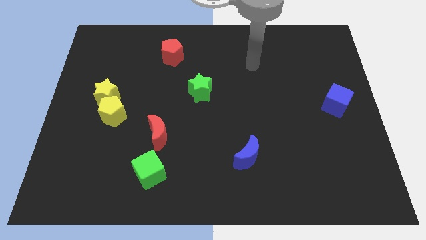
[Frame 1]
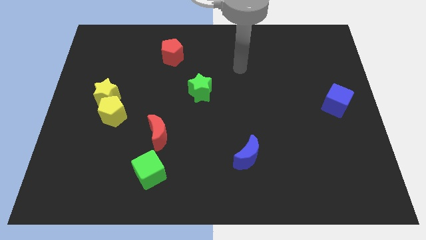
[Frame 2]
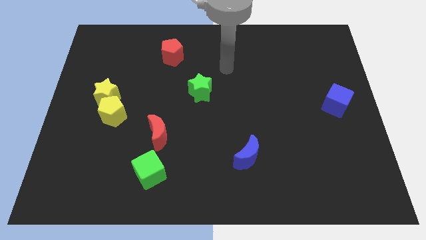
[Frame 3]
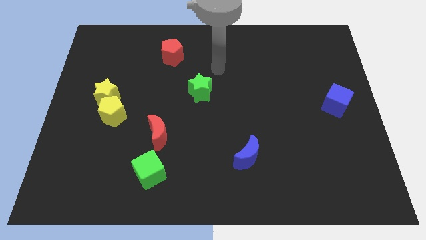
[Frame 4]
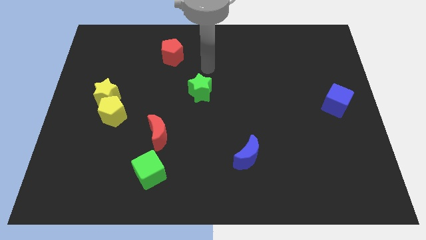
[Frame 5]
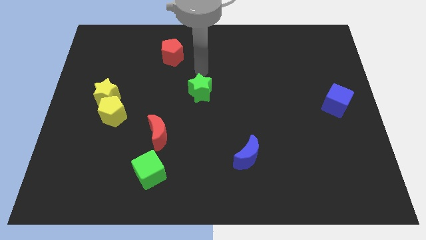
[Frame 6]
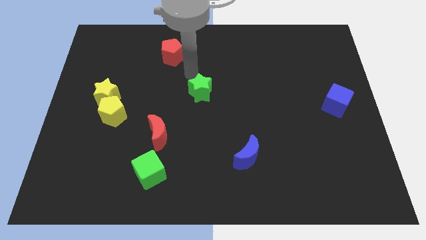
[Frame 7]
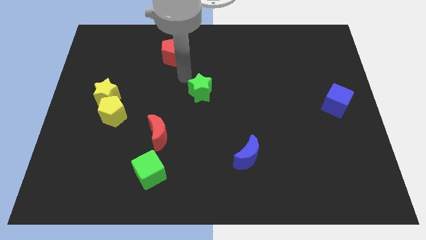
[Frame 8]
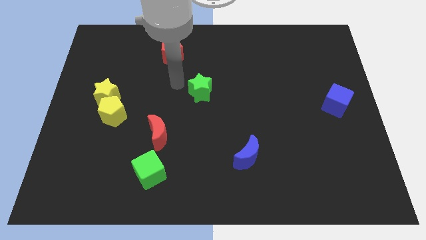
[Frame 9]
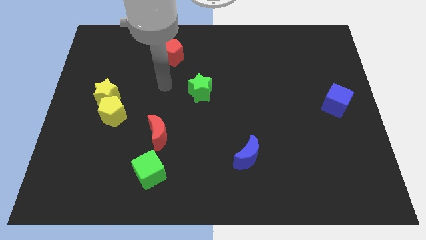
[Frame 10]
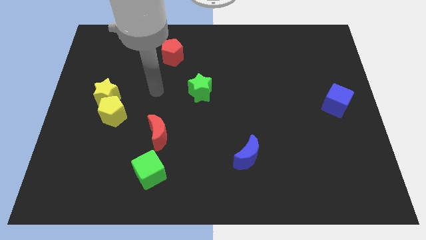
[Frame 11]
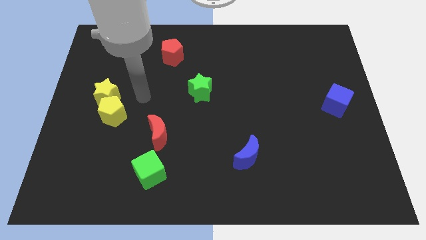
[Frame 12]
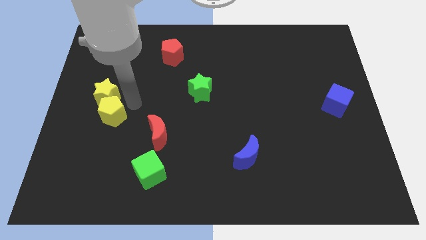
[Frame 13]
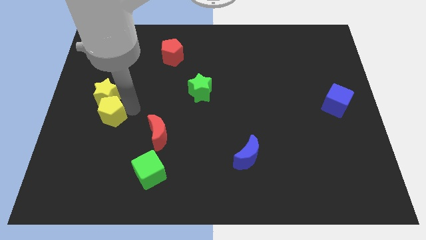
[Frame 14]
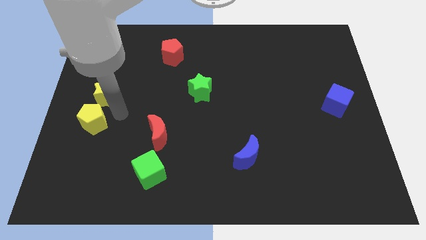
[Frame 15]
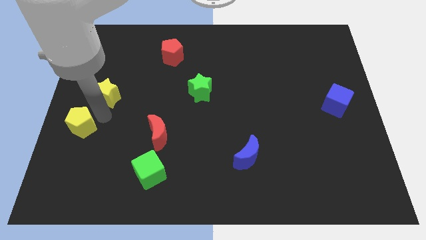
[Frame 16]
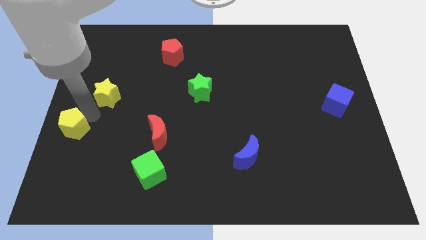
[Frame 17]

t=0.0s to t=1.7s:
move the yellow star away from the yellow pentagon

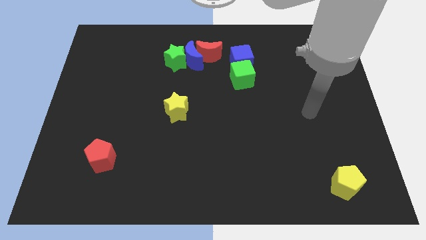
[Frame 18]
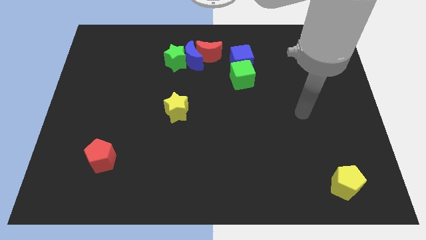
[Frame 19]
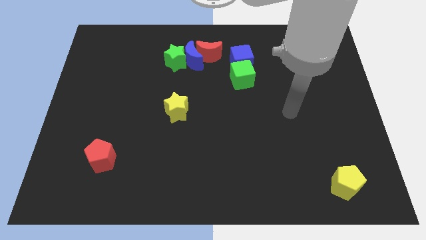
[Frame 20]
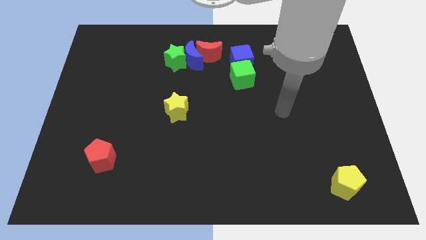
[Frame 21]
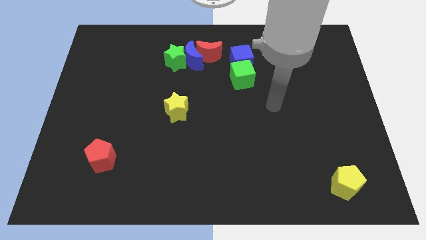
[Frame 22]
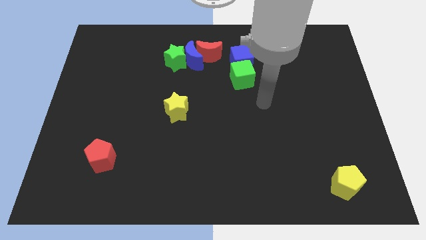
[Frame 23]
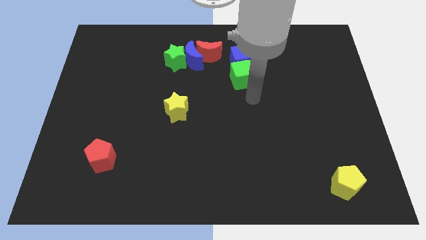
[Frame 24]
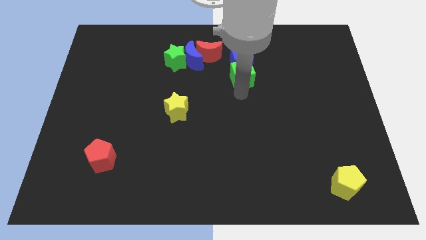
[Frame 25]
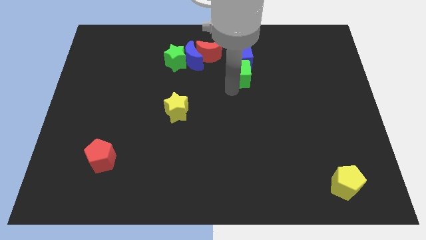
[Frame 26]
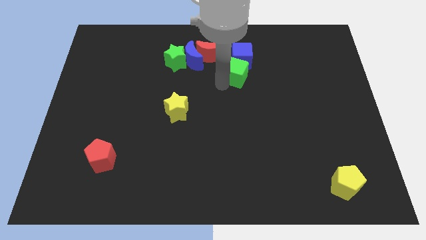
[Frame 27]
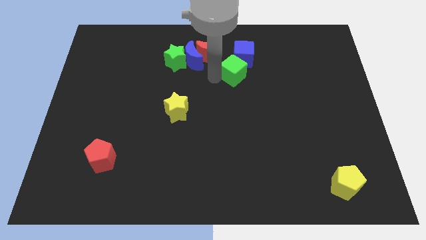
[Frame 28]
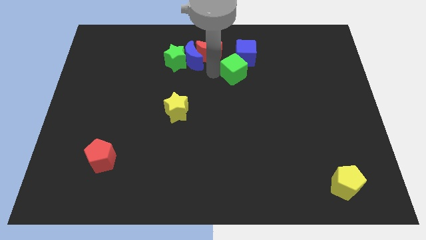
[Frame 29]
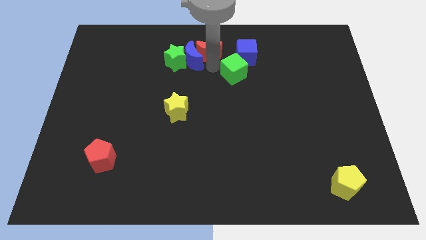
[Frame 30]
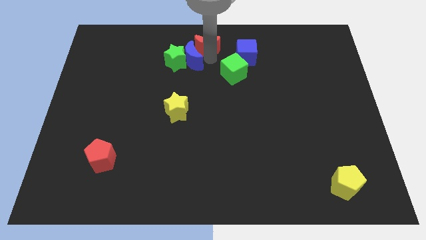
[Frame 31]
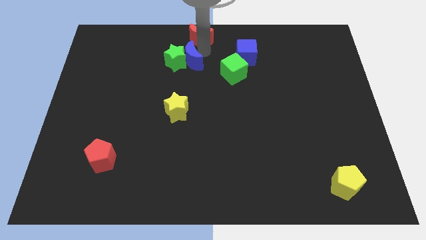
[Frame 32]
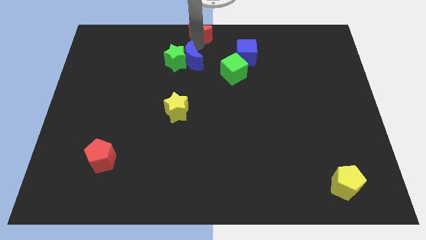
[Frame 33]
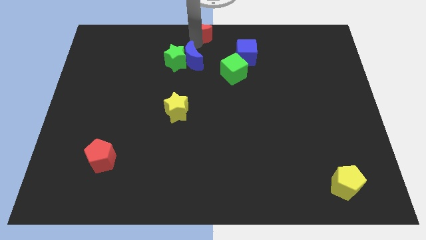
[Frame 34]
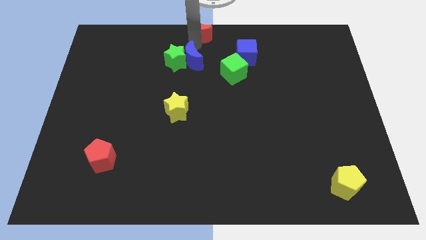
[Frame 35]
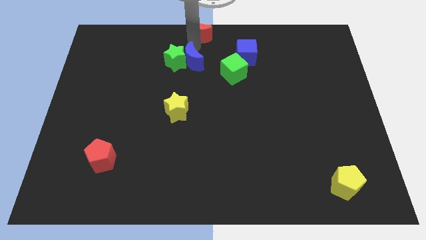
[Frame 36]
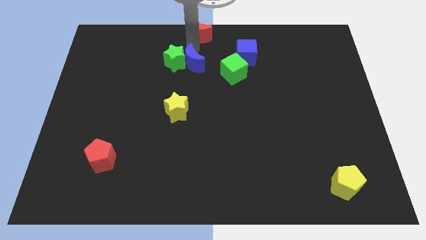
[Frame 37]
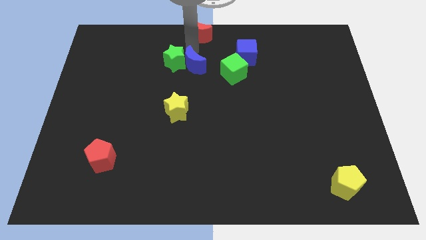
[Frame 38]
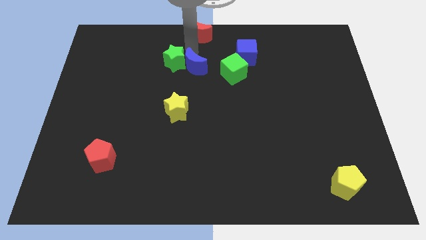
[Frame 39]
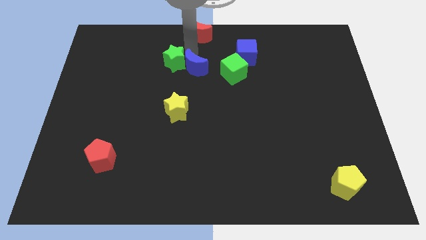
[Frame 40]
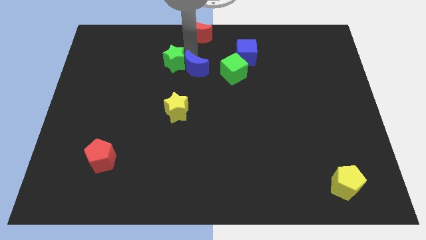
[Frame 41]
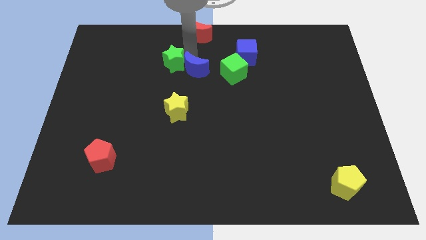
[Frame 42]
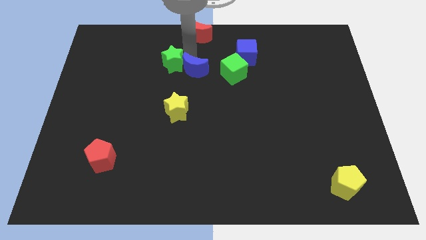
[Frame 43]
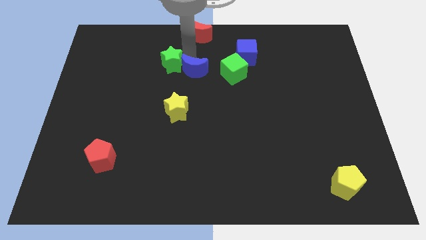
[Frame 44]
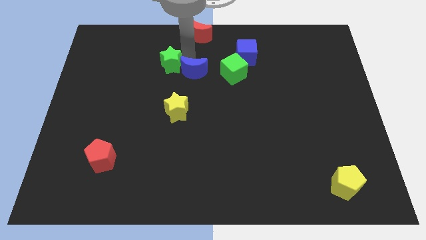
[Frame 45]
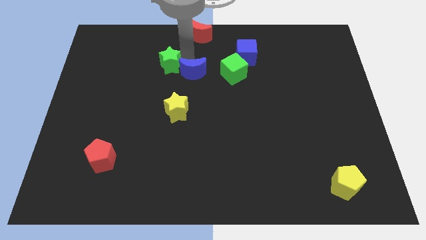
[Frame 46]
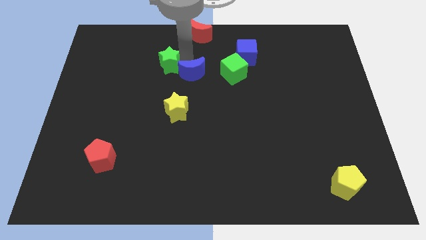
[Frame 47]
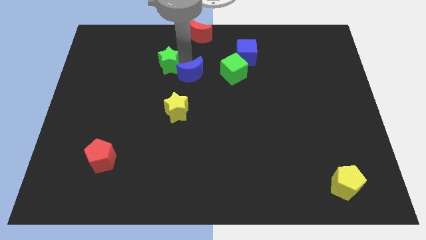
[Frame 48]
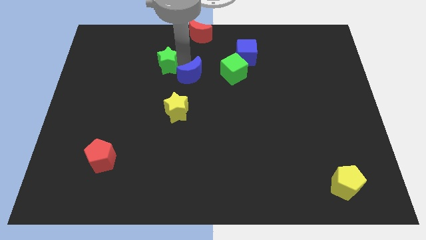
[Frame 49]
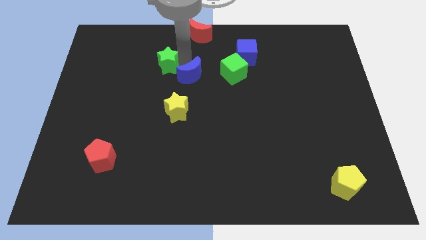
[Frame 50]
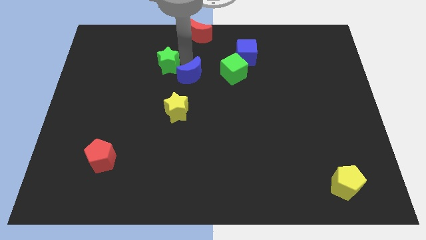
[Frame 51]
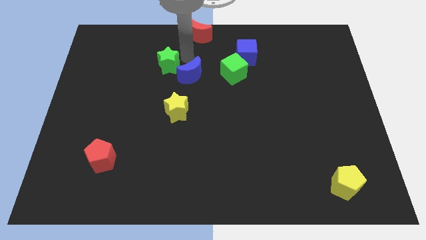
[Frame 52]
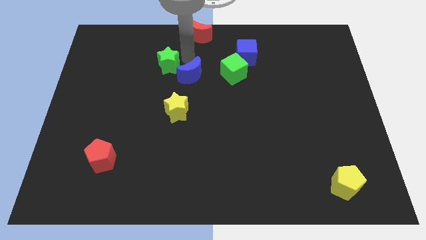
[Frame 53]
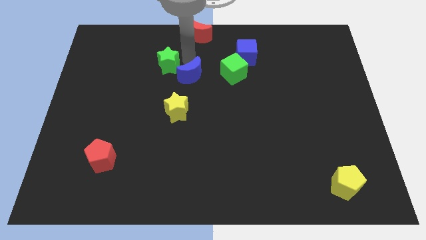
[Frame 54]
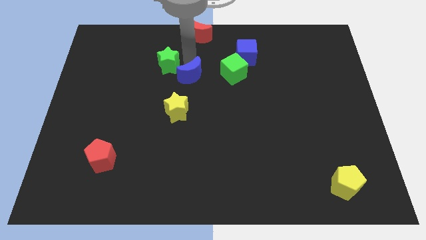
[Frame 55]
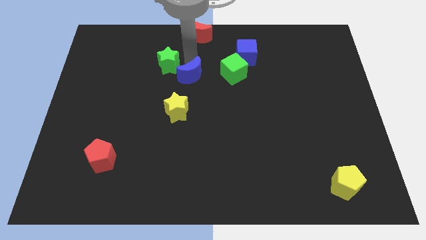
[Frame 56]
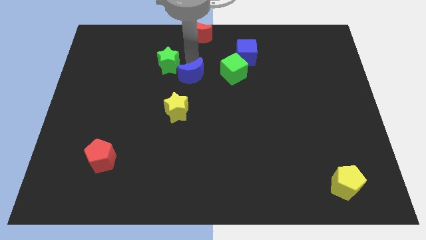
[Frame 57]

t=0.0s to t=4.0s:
pull the blue moon apart from the green star and red moon

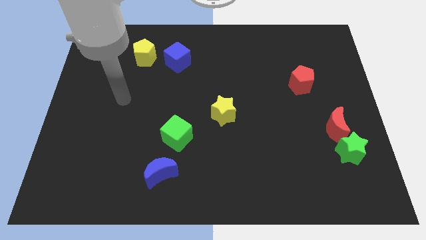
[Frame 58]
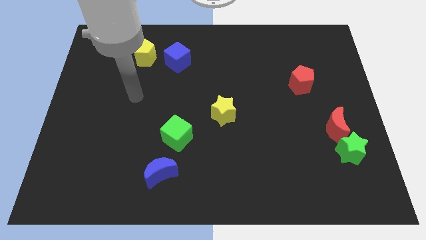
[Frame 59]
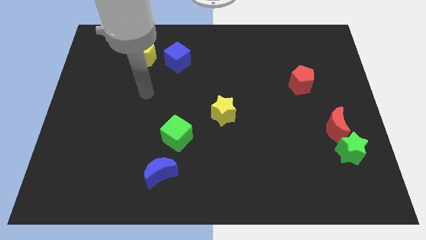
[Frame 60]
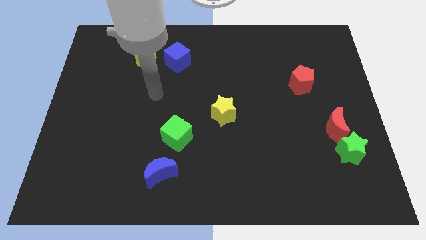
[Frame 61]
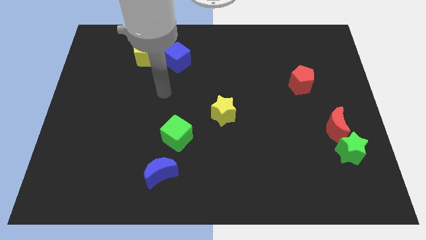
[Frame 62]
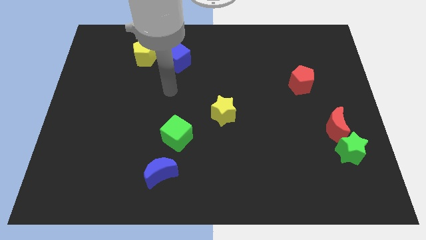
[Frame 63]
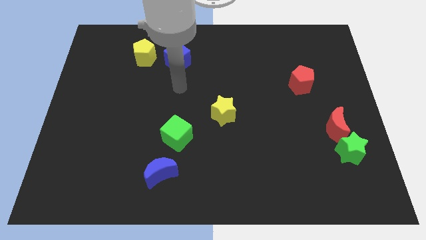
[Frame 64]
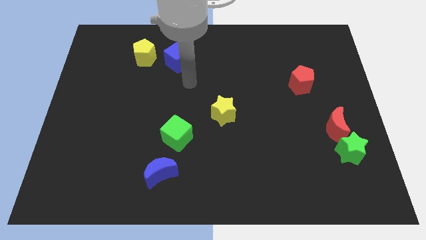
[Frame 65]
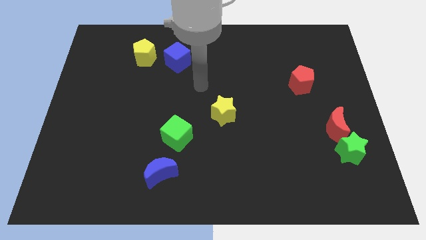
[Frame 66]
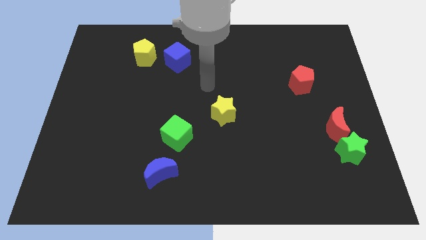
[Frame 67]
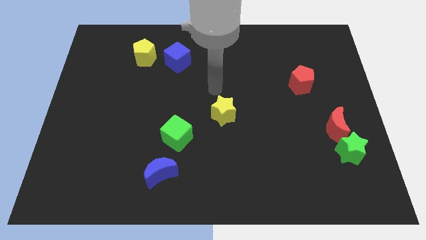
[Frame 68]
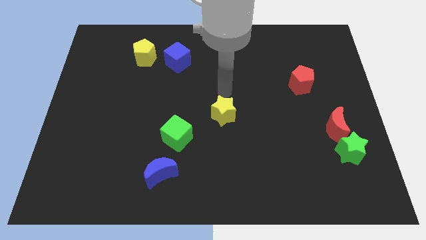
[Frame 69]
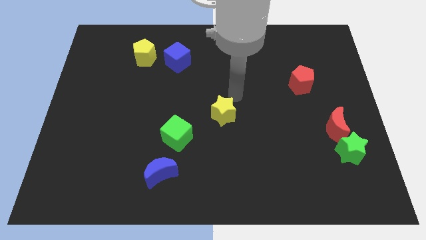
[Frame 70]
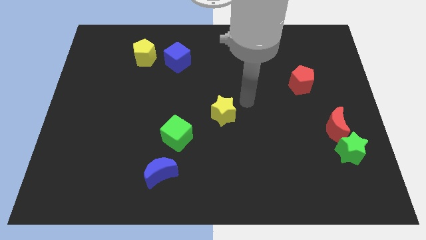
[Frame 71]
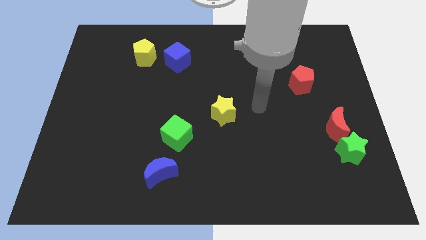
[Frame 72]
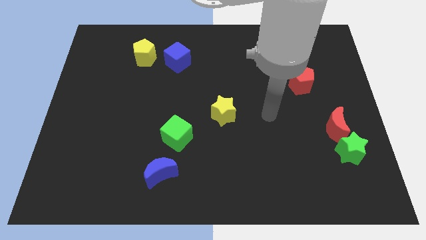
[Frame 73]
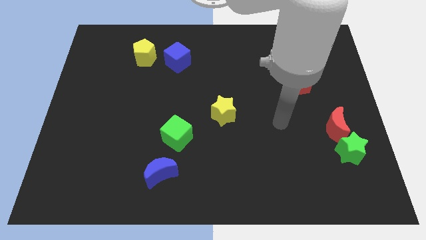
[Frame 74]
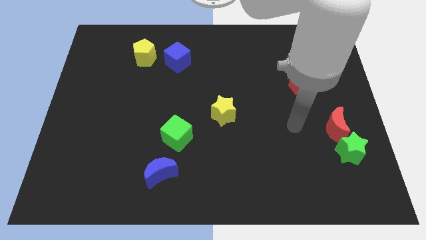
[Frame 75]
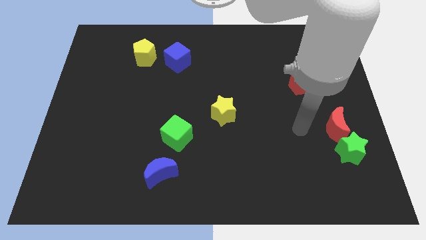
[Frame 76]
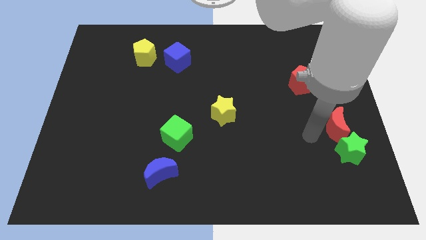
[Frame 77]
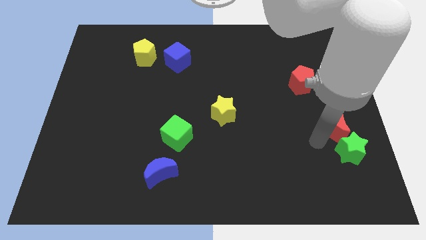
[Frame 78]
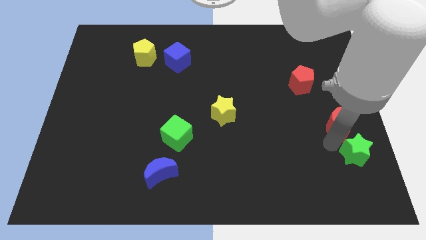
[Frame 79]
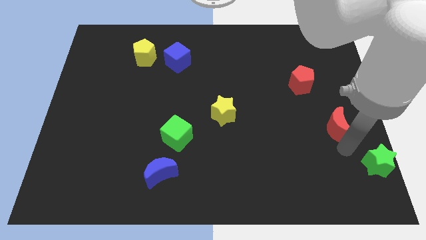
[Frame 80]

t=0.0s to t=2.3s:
pull the red moon apart from the green star

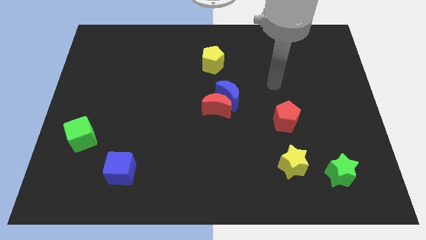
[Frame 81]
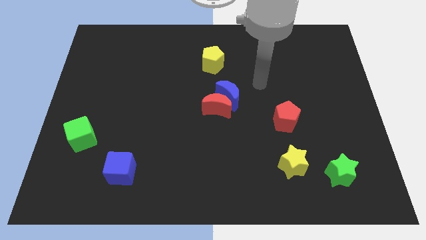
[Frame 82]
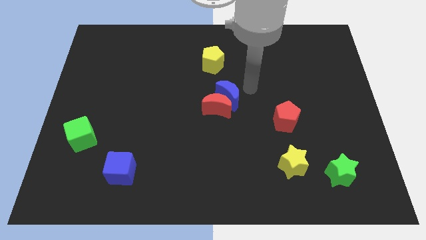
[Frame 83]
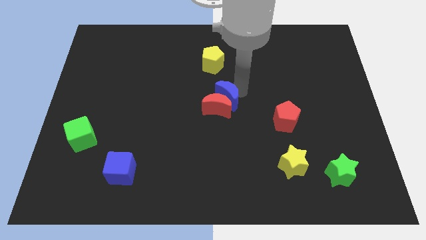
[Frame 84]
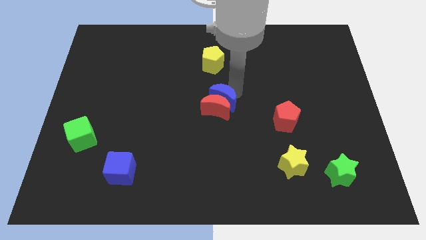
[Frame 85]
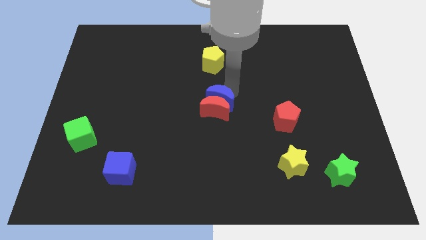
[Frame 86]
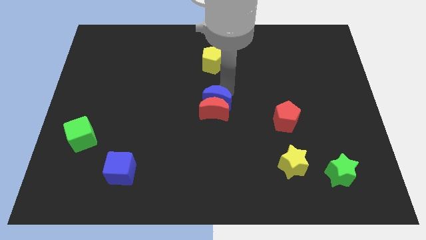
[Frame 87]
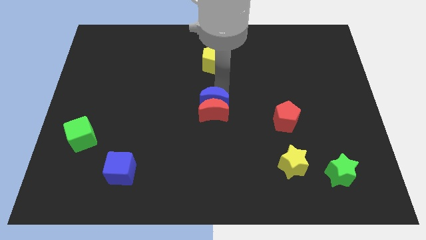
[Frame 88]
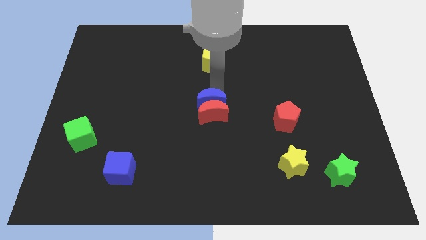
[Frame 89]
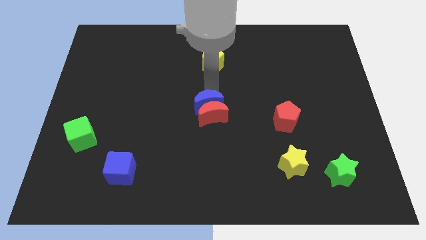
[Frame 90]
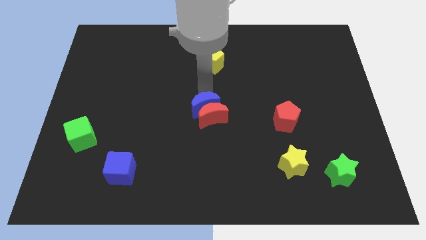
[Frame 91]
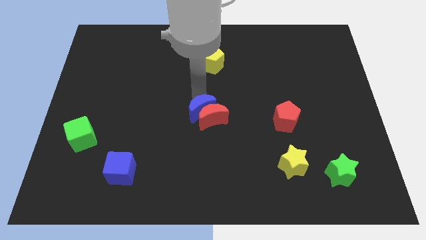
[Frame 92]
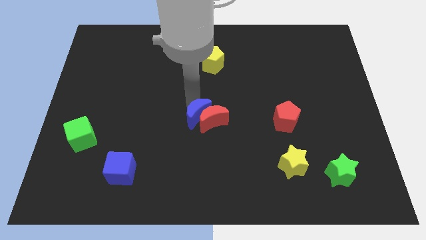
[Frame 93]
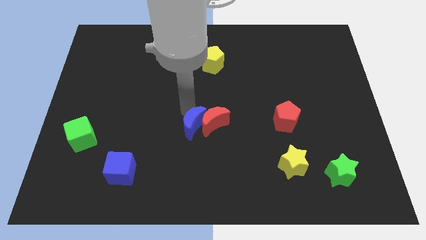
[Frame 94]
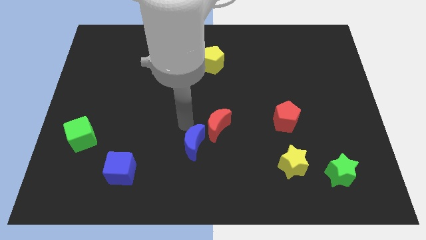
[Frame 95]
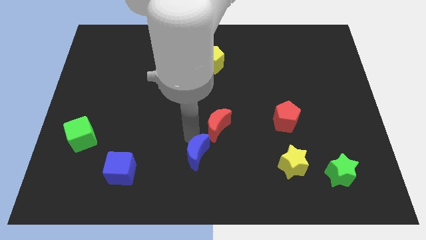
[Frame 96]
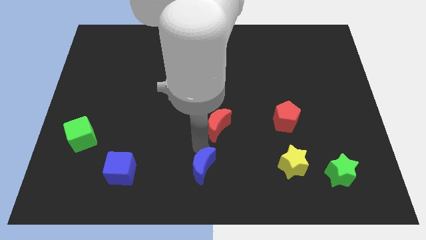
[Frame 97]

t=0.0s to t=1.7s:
pull the red moon apart from the blue moon
